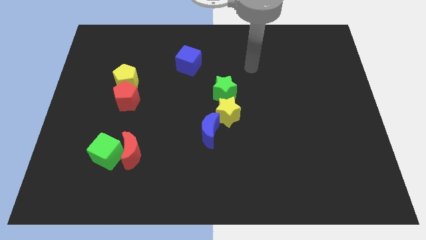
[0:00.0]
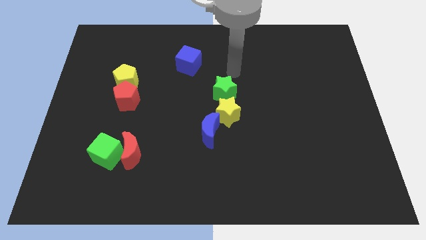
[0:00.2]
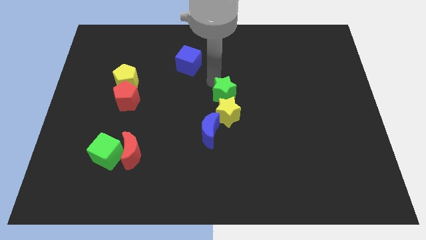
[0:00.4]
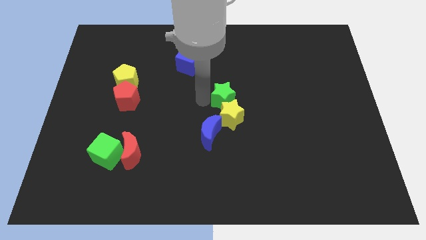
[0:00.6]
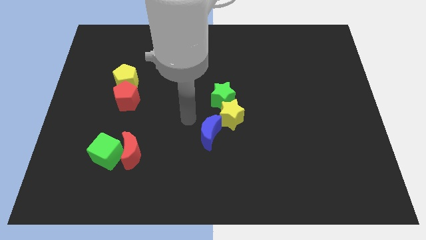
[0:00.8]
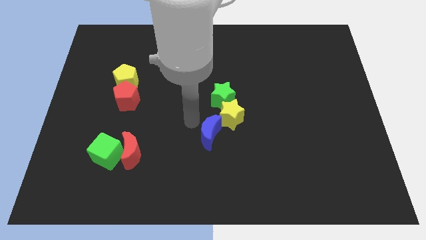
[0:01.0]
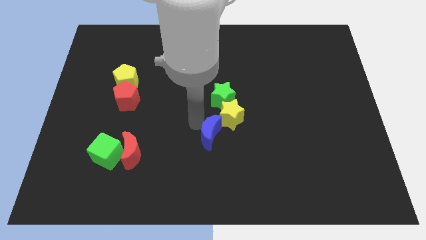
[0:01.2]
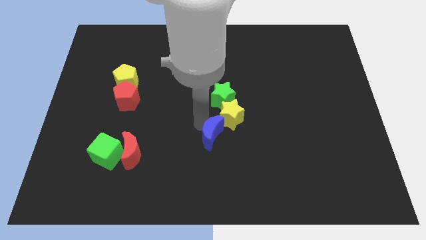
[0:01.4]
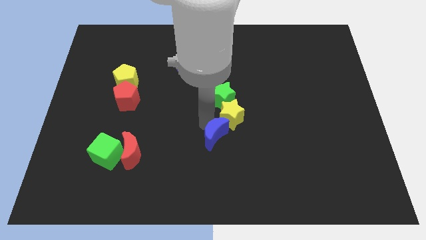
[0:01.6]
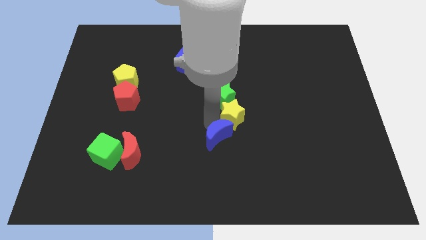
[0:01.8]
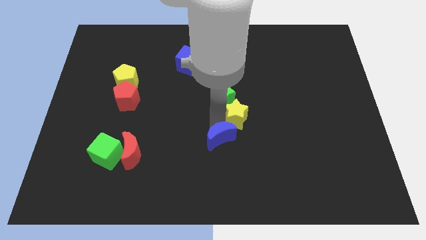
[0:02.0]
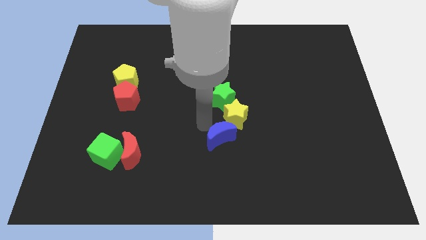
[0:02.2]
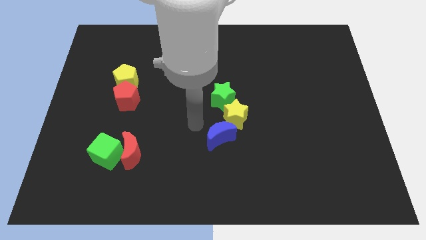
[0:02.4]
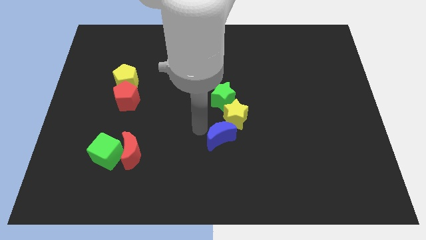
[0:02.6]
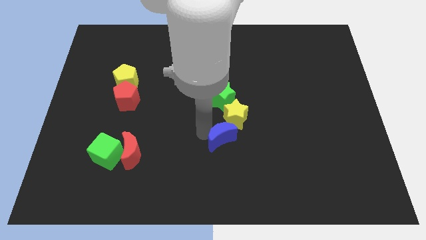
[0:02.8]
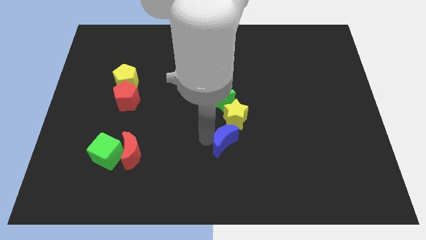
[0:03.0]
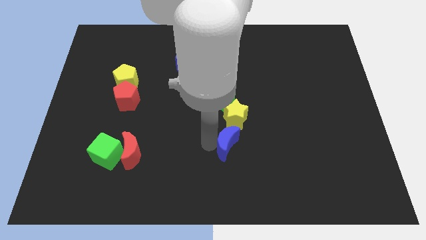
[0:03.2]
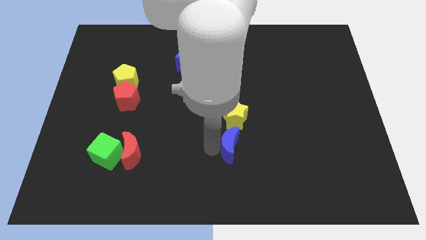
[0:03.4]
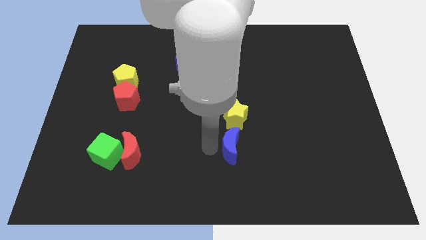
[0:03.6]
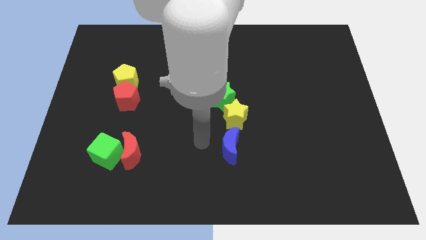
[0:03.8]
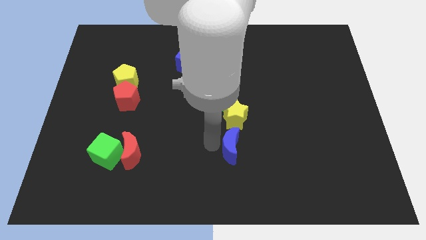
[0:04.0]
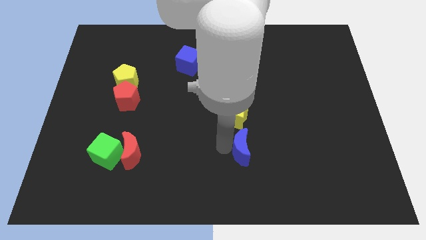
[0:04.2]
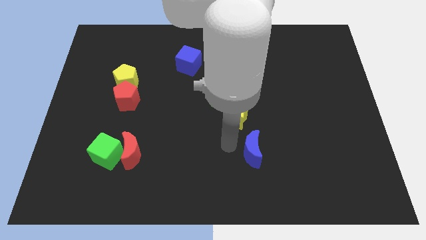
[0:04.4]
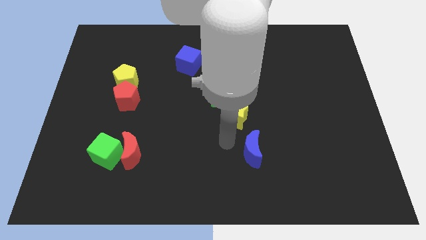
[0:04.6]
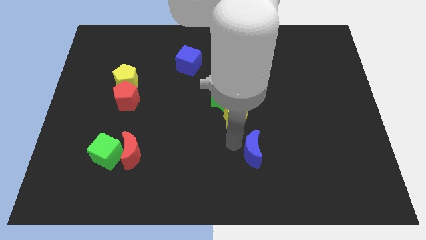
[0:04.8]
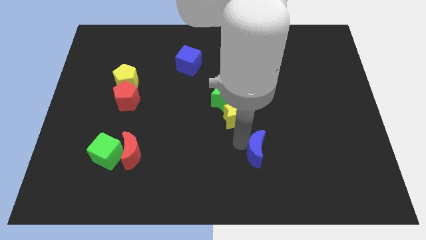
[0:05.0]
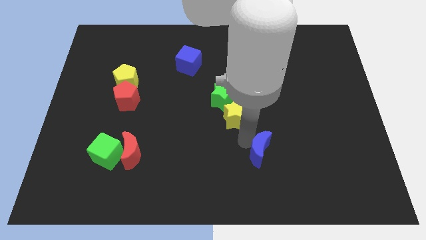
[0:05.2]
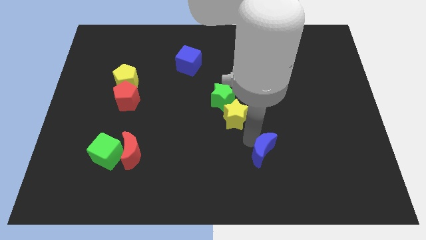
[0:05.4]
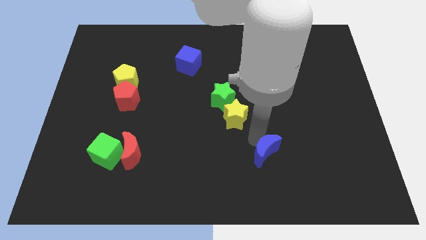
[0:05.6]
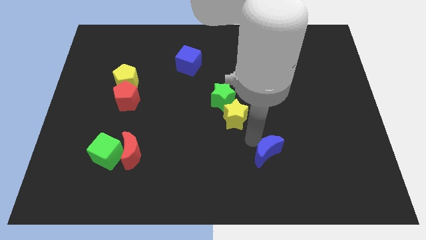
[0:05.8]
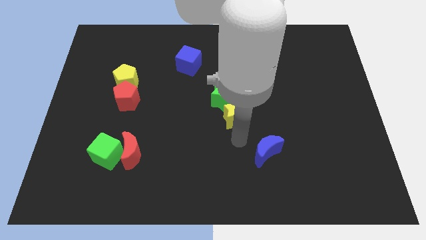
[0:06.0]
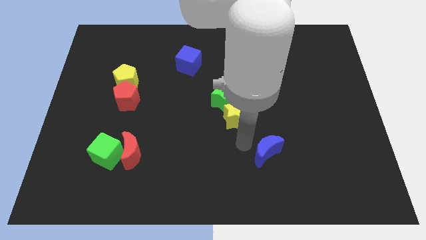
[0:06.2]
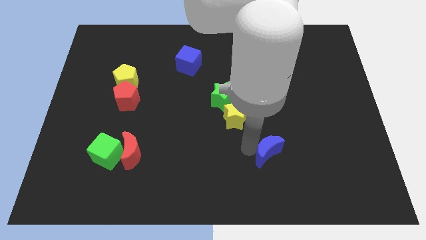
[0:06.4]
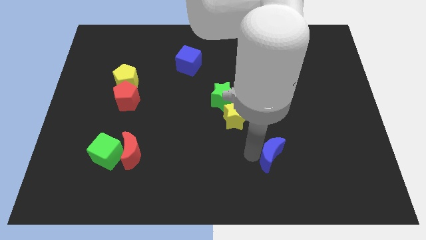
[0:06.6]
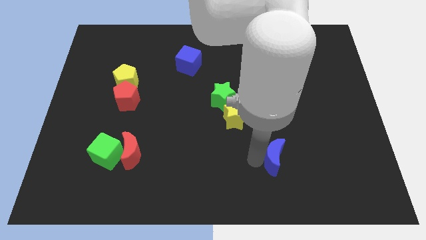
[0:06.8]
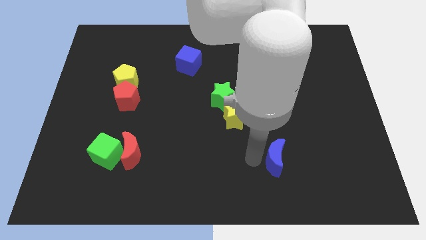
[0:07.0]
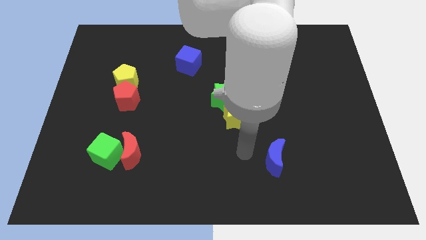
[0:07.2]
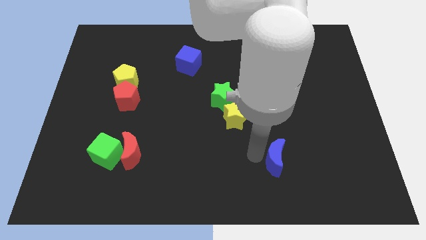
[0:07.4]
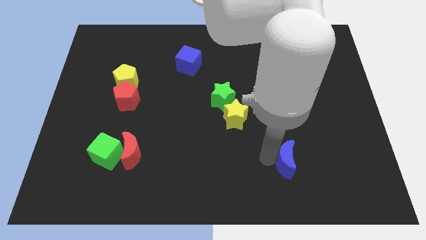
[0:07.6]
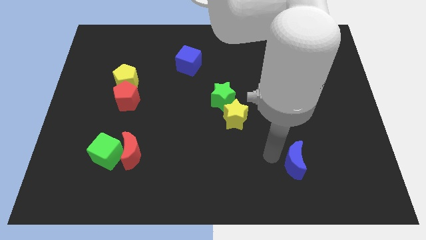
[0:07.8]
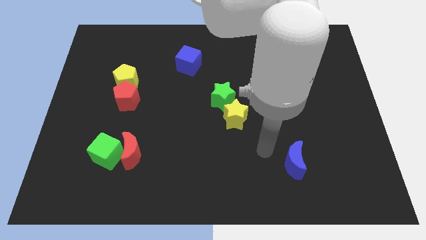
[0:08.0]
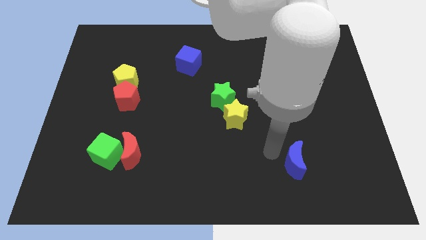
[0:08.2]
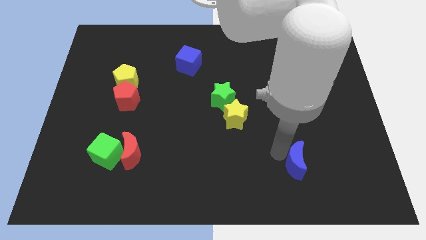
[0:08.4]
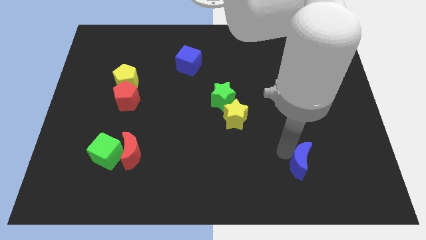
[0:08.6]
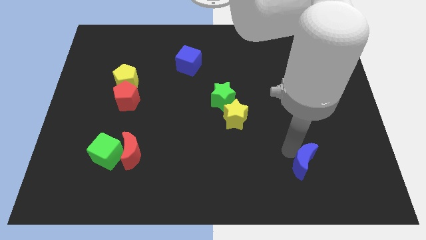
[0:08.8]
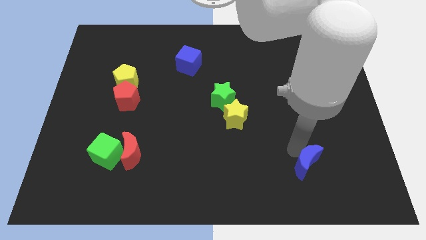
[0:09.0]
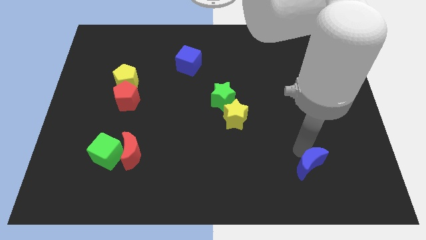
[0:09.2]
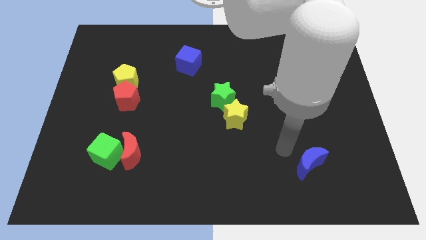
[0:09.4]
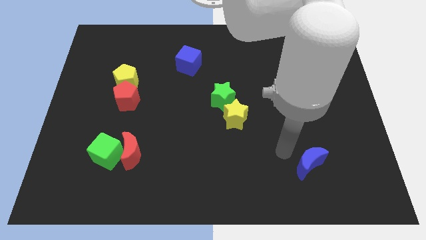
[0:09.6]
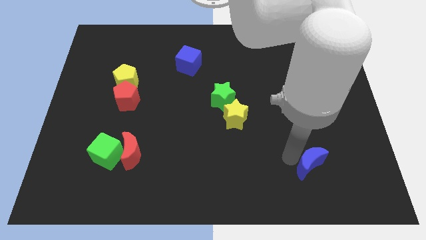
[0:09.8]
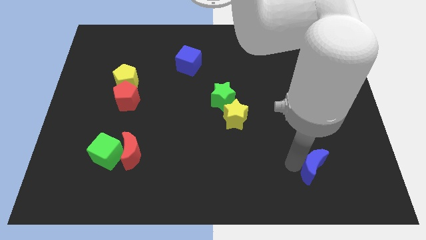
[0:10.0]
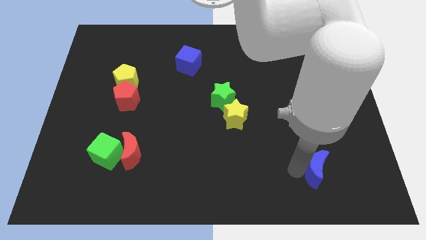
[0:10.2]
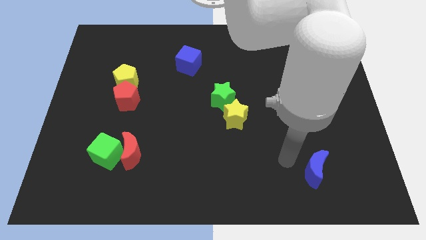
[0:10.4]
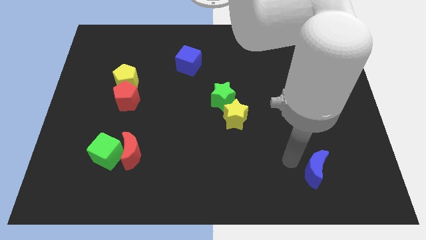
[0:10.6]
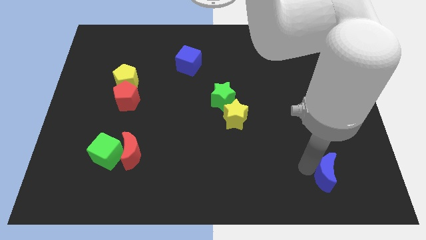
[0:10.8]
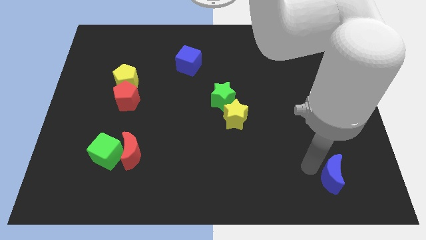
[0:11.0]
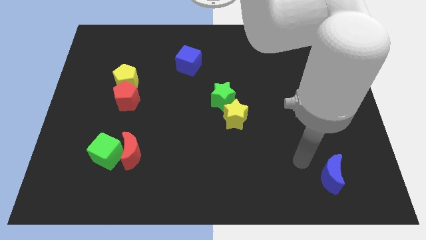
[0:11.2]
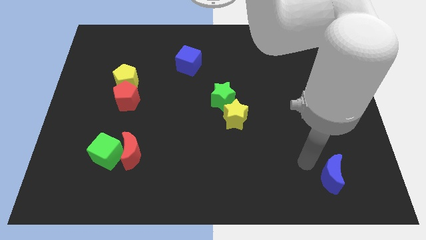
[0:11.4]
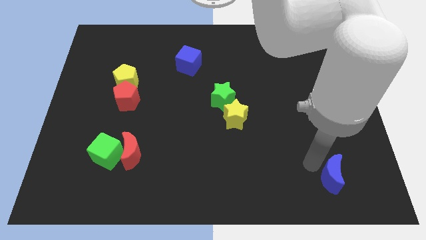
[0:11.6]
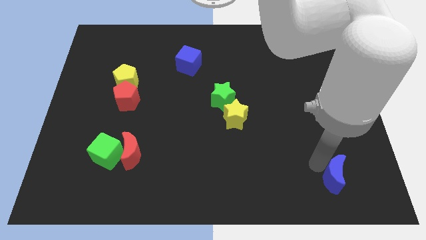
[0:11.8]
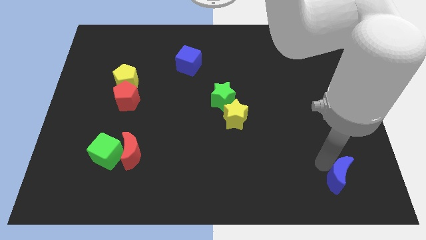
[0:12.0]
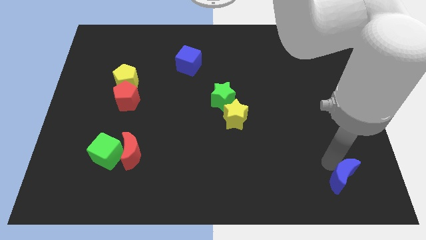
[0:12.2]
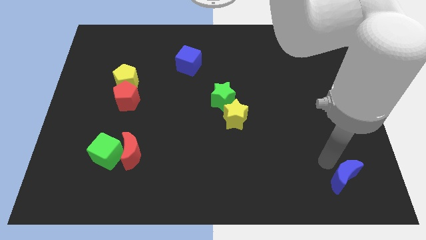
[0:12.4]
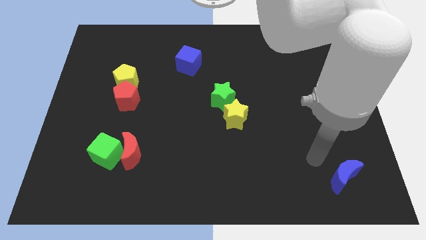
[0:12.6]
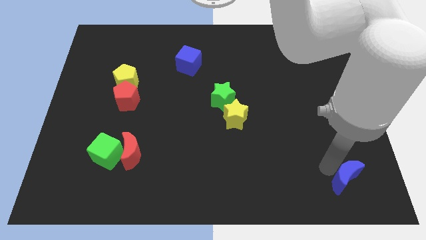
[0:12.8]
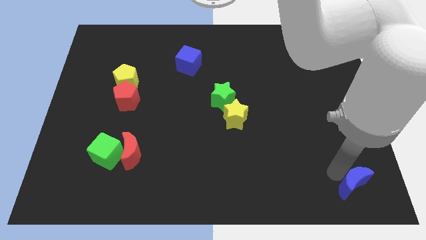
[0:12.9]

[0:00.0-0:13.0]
move the blue moon to the bottom right of the board
